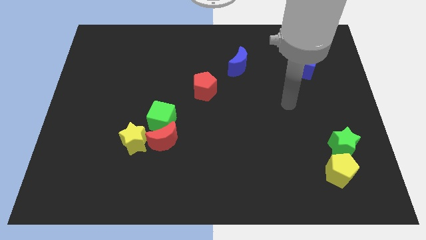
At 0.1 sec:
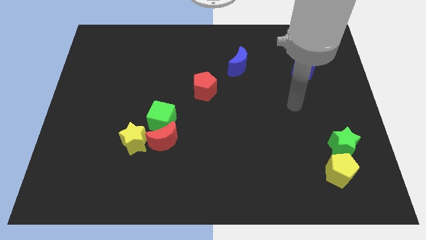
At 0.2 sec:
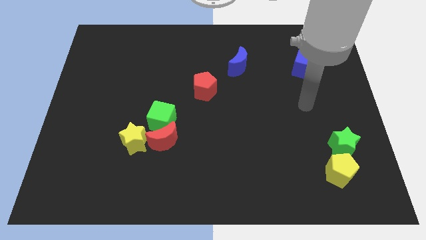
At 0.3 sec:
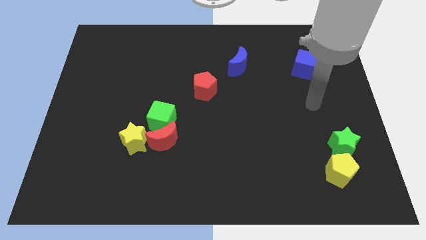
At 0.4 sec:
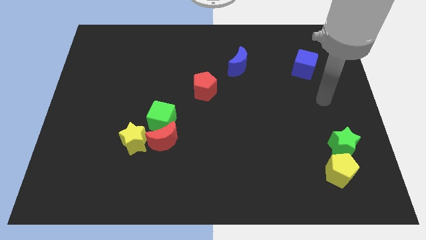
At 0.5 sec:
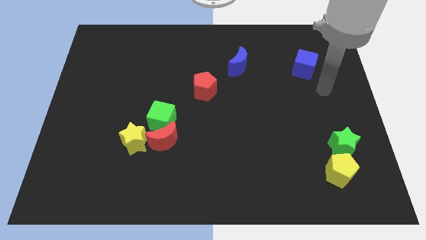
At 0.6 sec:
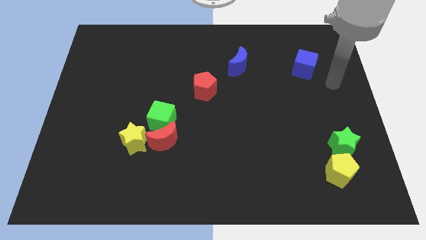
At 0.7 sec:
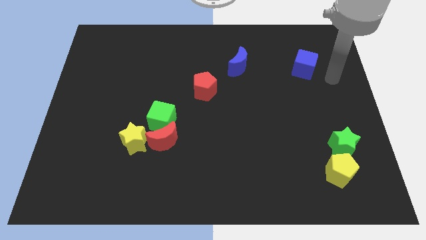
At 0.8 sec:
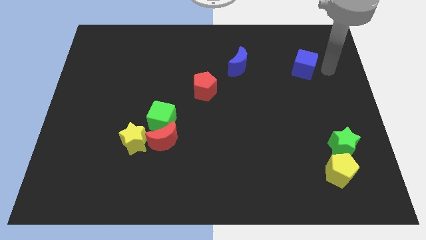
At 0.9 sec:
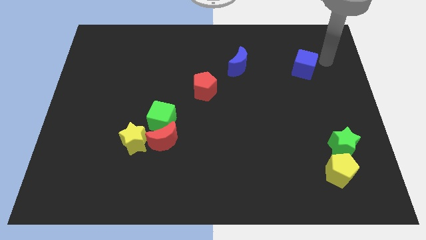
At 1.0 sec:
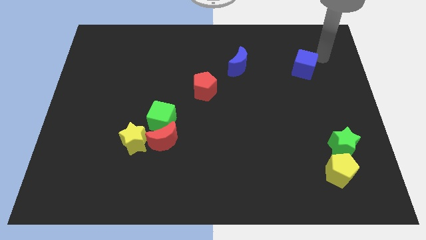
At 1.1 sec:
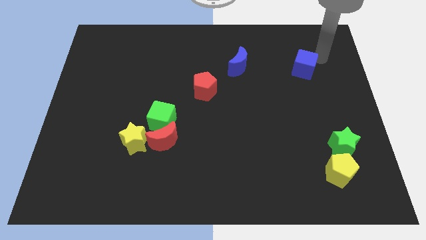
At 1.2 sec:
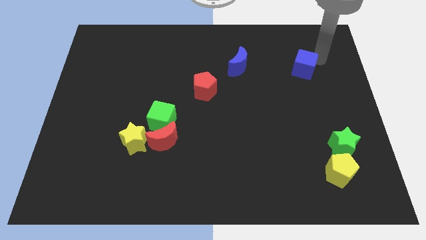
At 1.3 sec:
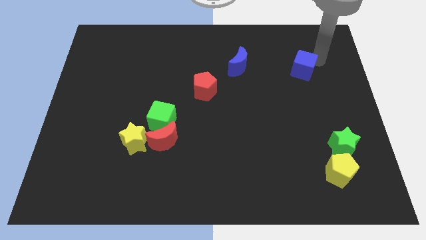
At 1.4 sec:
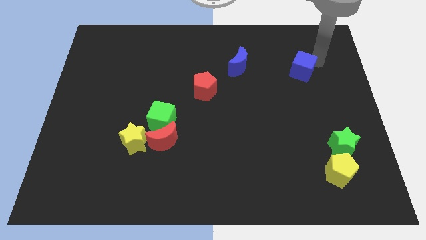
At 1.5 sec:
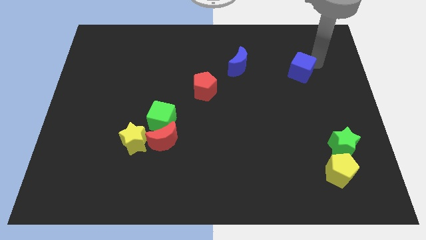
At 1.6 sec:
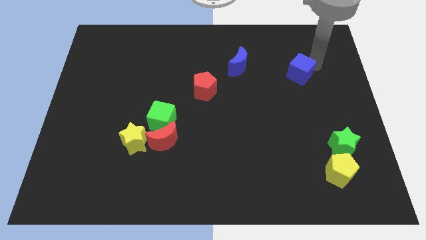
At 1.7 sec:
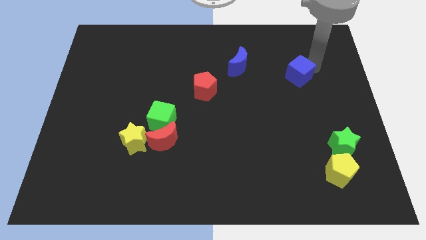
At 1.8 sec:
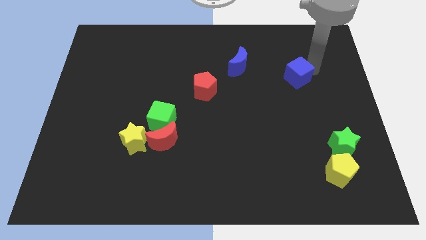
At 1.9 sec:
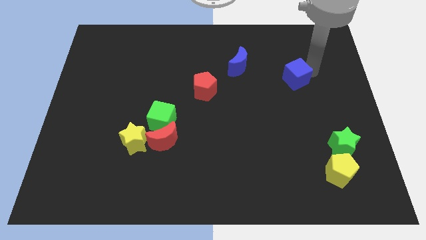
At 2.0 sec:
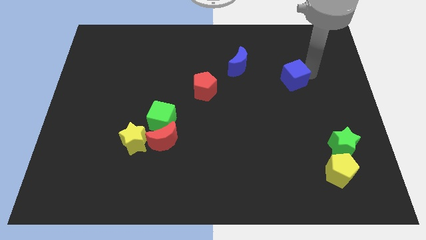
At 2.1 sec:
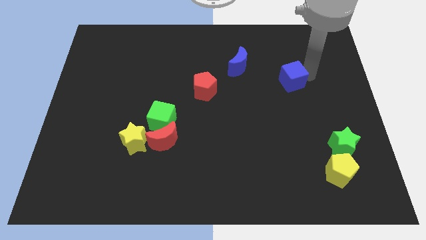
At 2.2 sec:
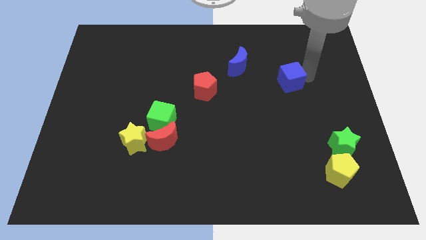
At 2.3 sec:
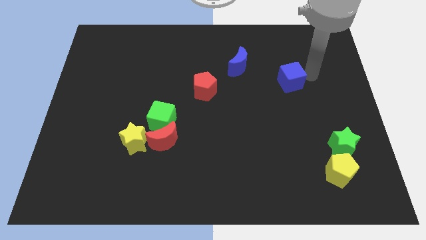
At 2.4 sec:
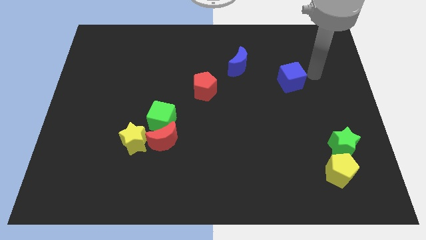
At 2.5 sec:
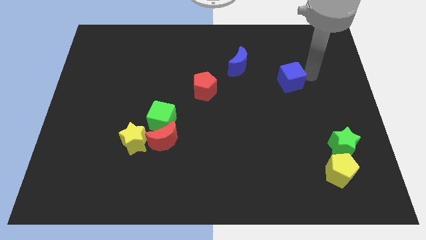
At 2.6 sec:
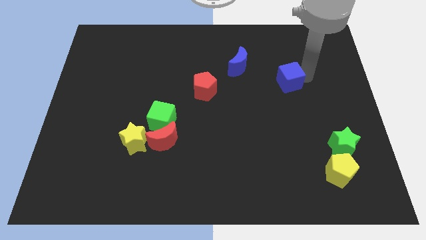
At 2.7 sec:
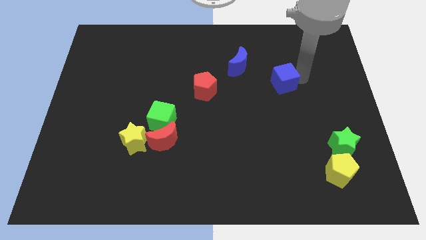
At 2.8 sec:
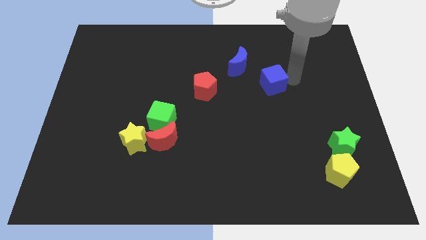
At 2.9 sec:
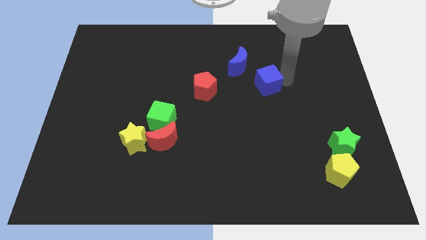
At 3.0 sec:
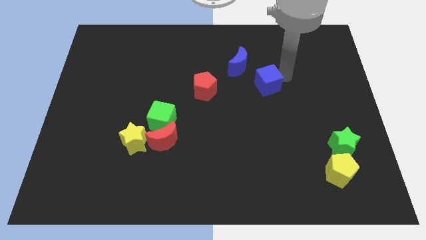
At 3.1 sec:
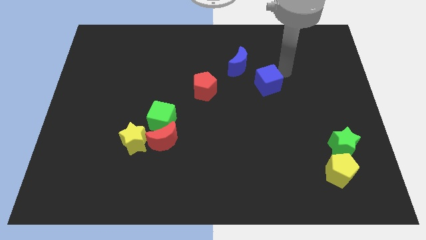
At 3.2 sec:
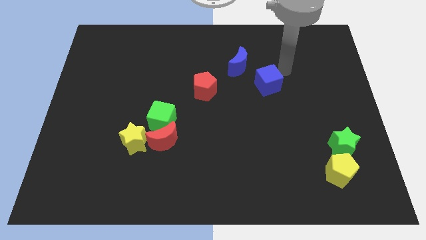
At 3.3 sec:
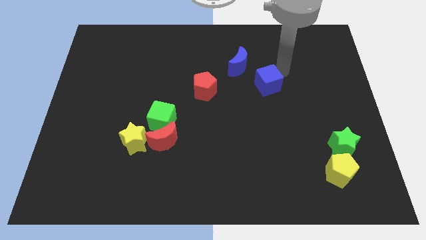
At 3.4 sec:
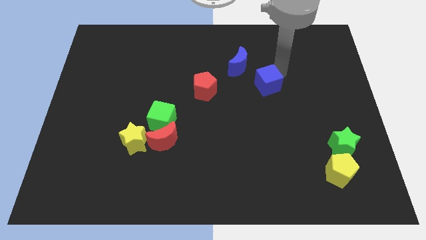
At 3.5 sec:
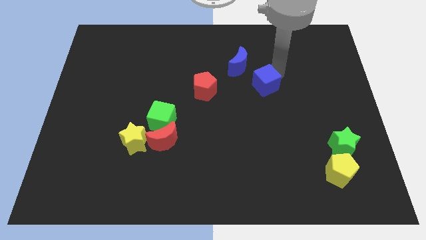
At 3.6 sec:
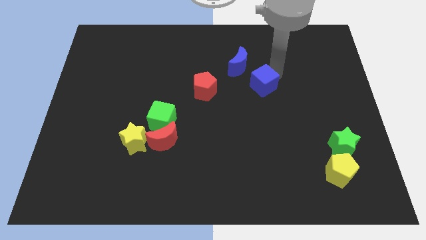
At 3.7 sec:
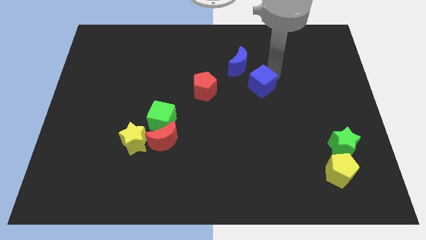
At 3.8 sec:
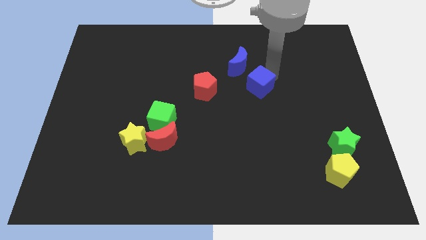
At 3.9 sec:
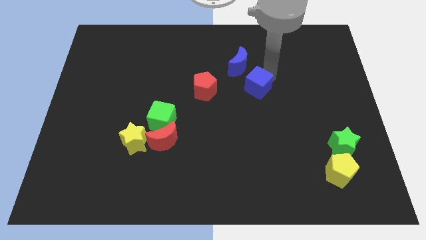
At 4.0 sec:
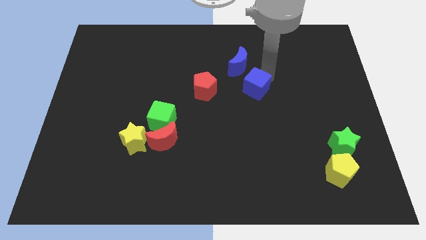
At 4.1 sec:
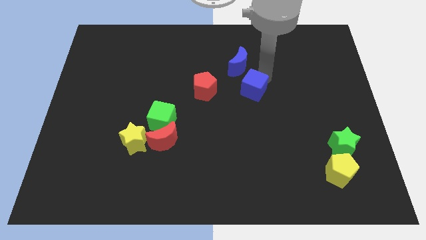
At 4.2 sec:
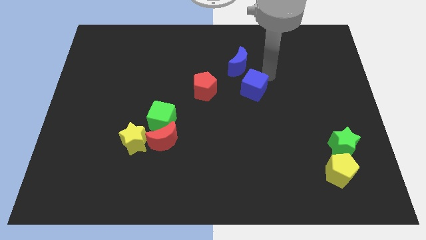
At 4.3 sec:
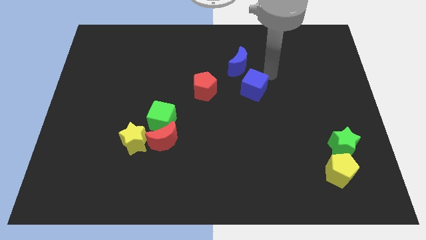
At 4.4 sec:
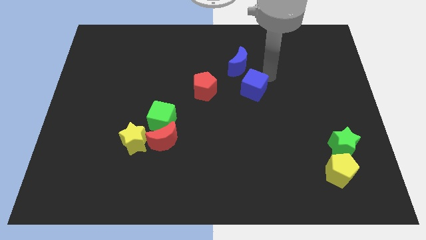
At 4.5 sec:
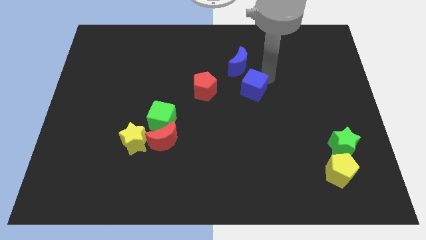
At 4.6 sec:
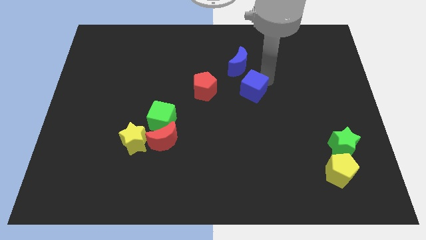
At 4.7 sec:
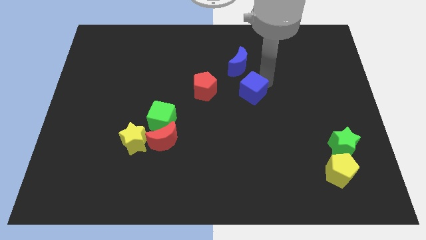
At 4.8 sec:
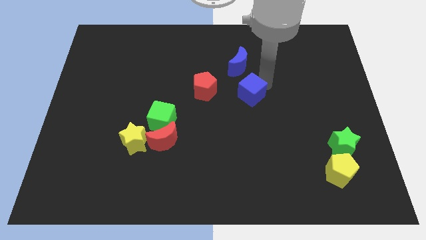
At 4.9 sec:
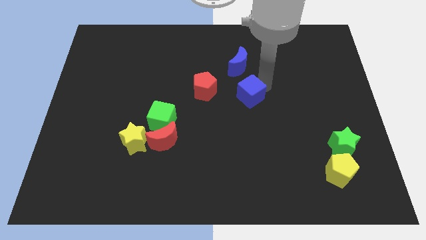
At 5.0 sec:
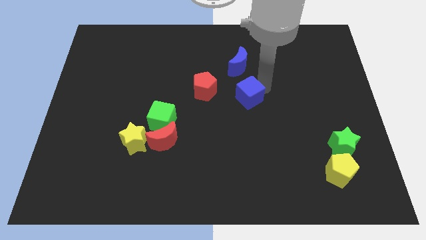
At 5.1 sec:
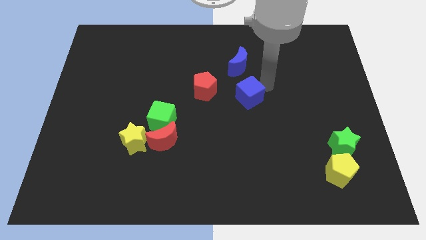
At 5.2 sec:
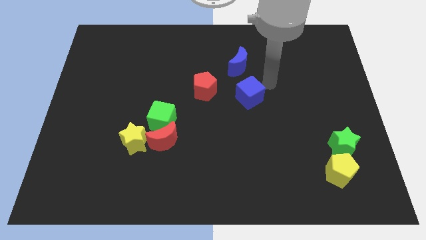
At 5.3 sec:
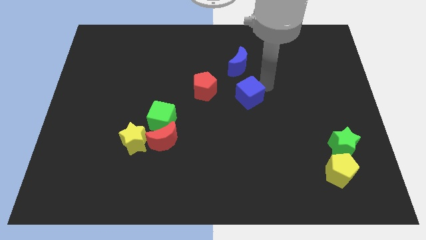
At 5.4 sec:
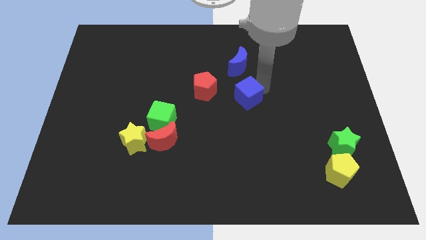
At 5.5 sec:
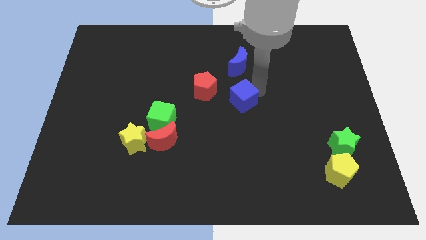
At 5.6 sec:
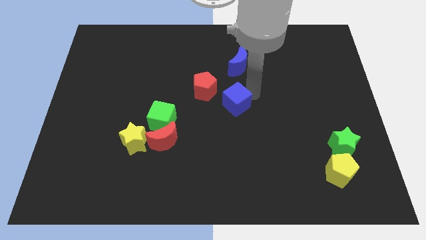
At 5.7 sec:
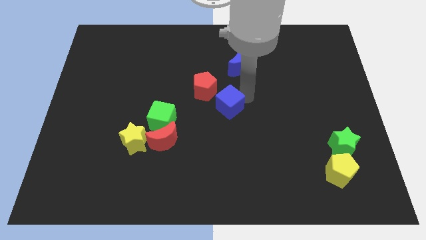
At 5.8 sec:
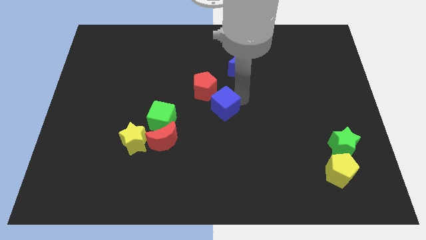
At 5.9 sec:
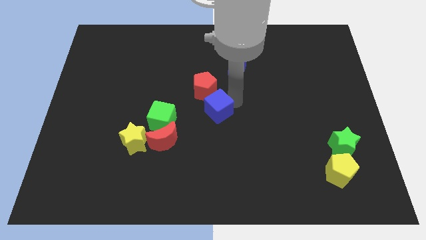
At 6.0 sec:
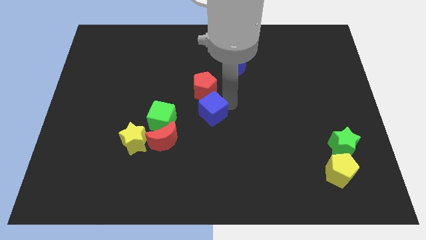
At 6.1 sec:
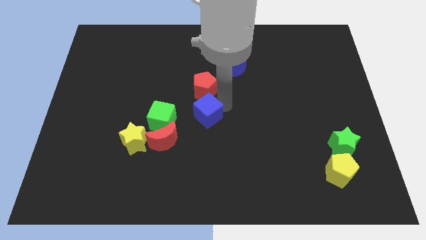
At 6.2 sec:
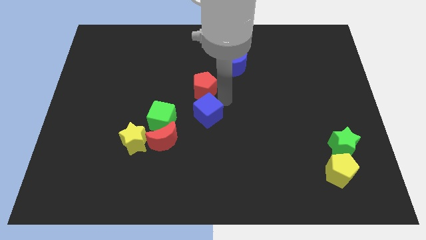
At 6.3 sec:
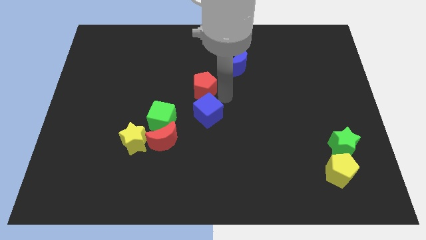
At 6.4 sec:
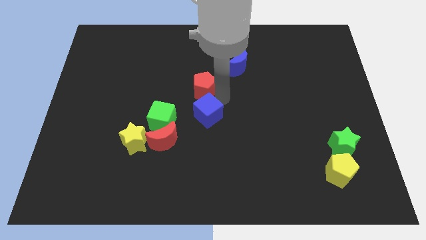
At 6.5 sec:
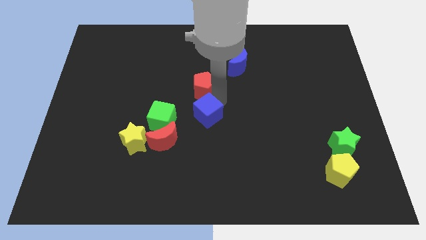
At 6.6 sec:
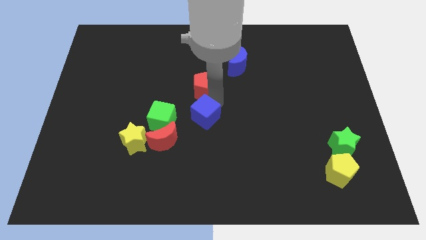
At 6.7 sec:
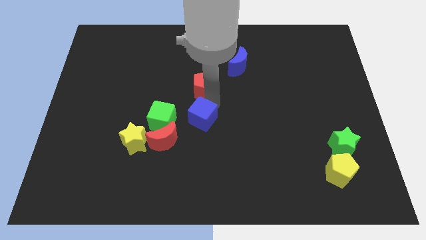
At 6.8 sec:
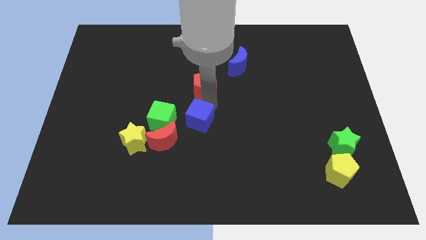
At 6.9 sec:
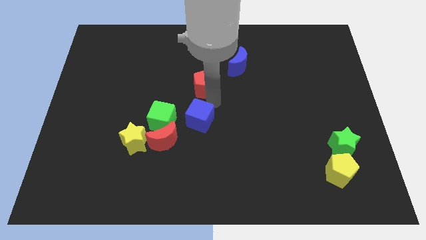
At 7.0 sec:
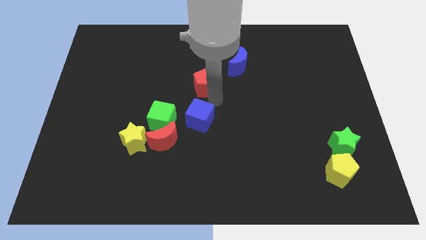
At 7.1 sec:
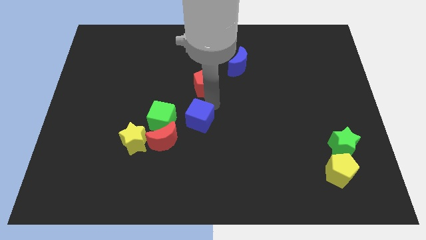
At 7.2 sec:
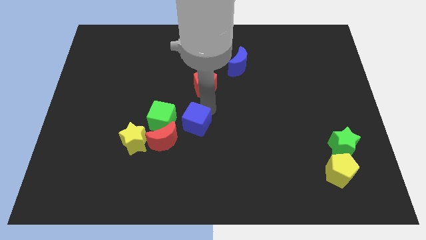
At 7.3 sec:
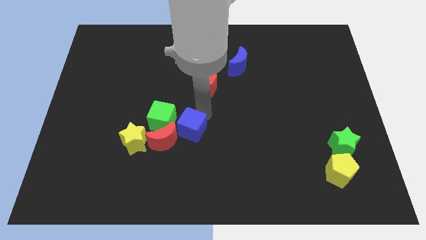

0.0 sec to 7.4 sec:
slide the blue cube to the bottom right of the green cube

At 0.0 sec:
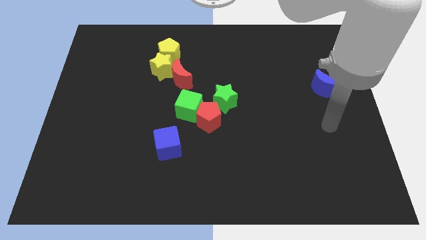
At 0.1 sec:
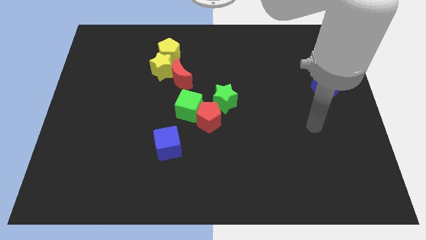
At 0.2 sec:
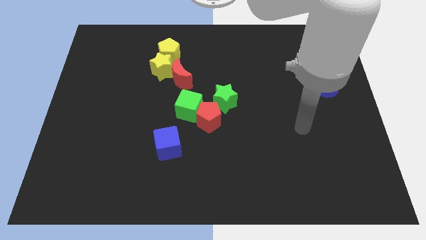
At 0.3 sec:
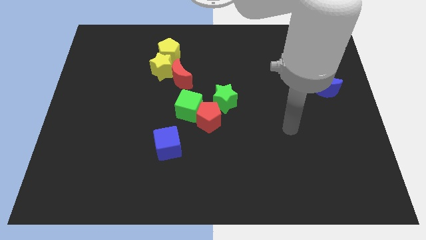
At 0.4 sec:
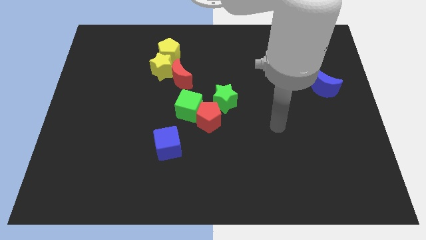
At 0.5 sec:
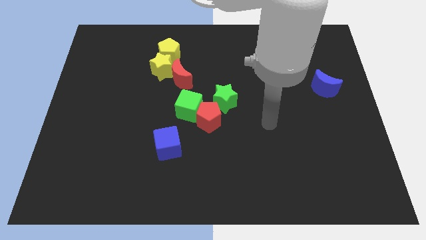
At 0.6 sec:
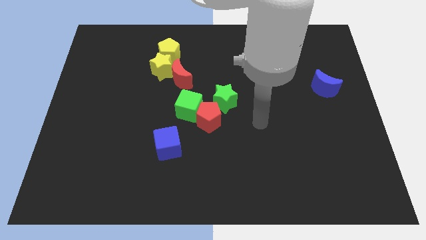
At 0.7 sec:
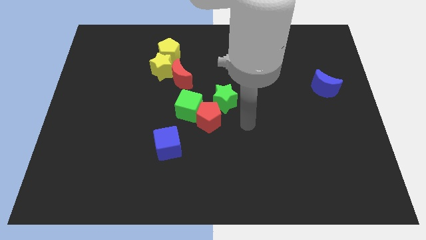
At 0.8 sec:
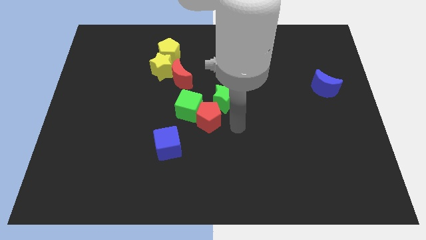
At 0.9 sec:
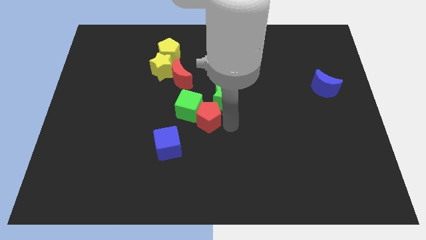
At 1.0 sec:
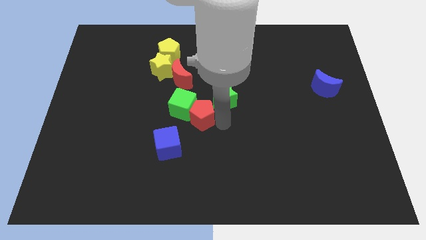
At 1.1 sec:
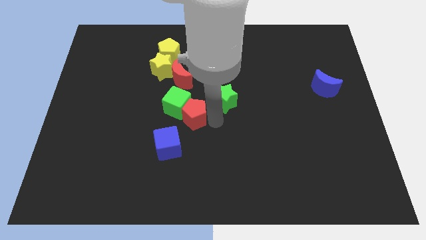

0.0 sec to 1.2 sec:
put the red pentagon to the bottom of the red moon
